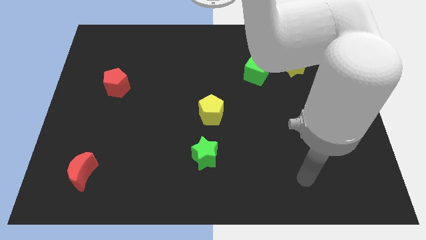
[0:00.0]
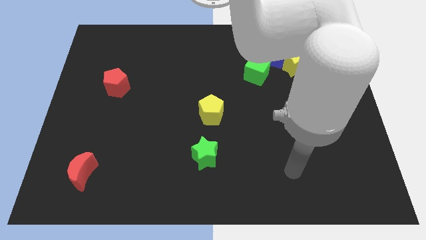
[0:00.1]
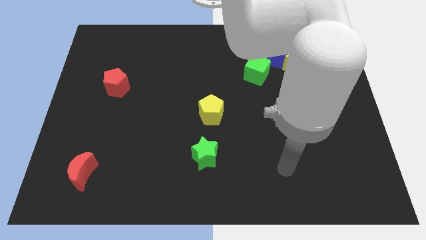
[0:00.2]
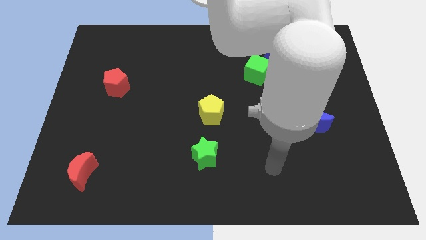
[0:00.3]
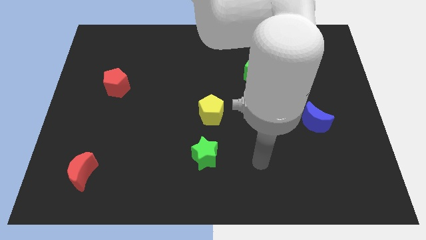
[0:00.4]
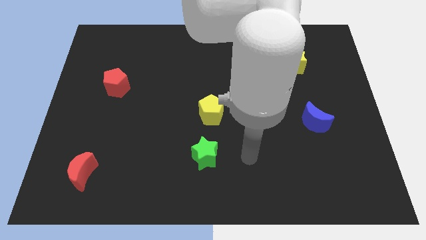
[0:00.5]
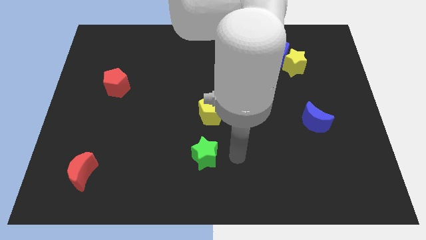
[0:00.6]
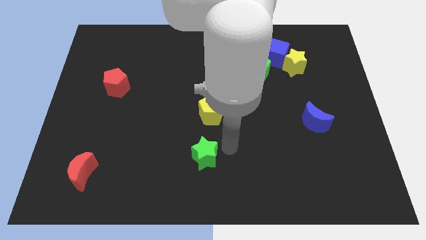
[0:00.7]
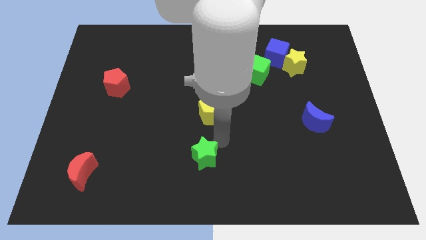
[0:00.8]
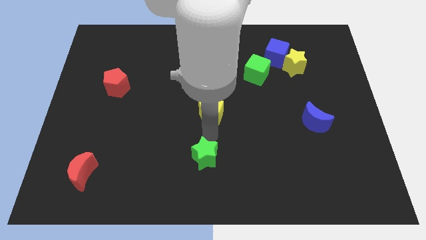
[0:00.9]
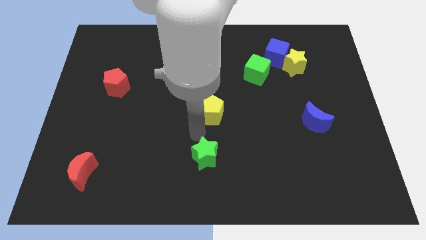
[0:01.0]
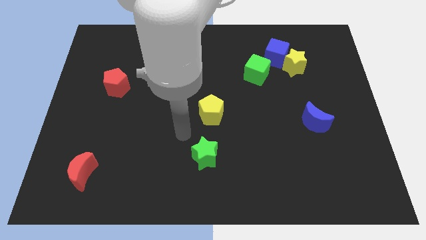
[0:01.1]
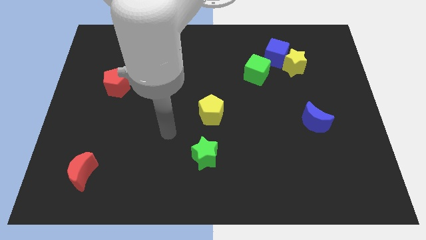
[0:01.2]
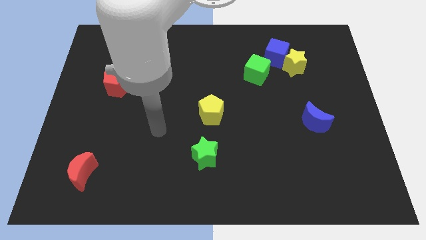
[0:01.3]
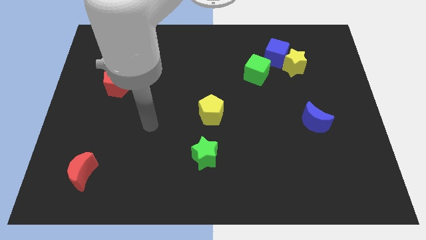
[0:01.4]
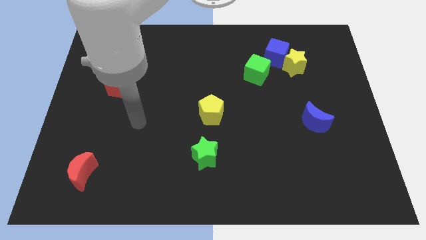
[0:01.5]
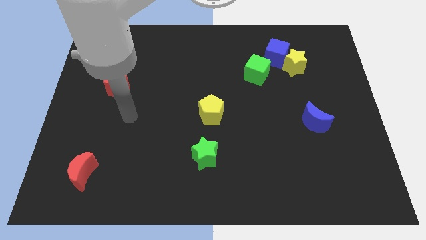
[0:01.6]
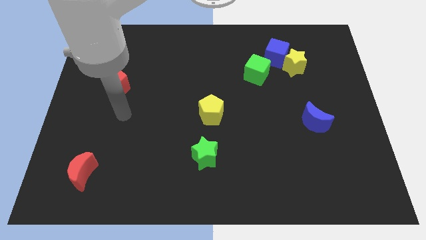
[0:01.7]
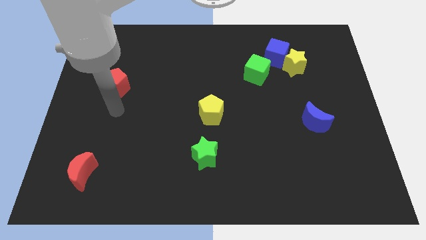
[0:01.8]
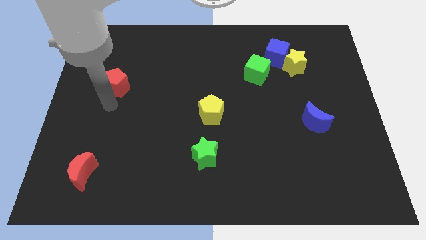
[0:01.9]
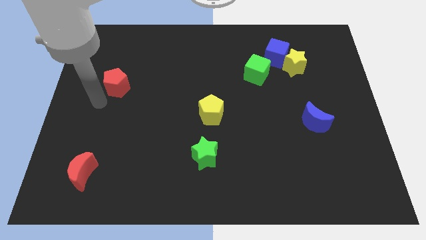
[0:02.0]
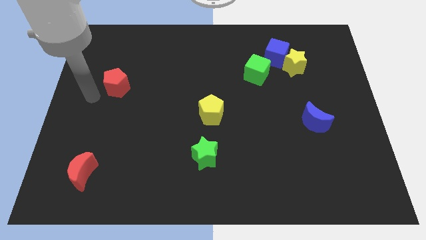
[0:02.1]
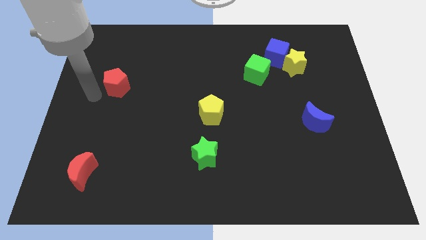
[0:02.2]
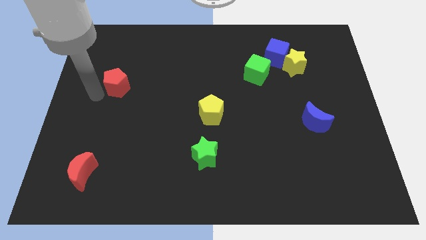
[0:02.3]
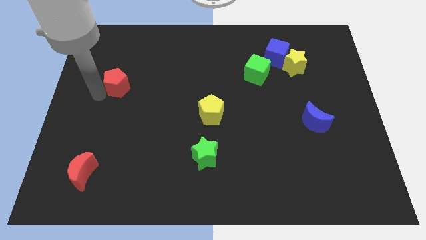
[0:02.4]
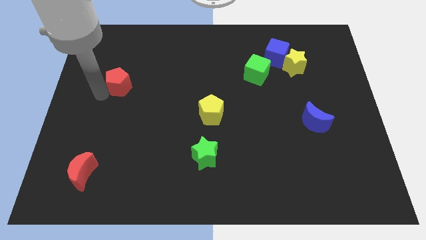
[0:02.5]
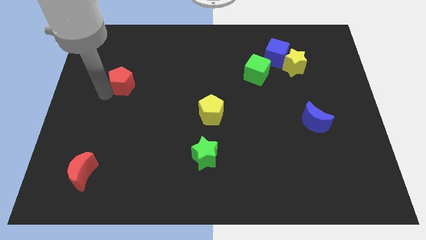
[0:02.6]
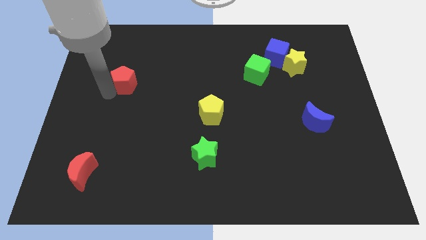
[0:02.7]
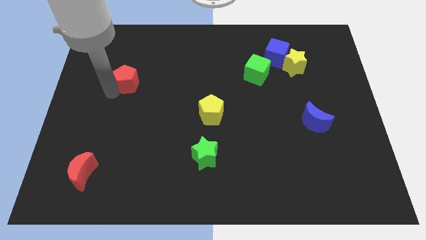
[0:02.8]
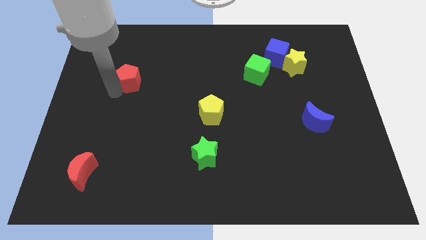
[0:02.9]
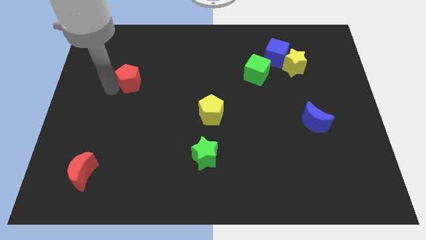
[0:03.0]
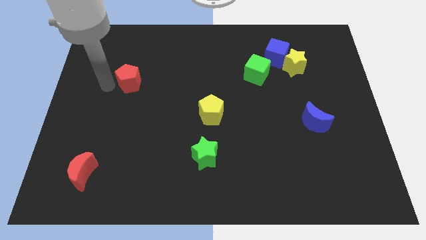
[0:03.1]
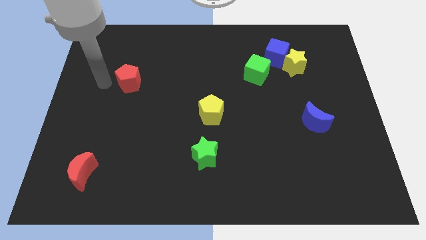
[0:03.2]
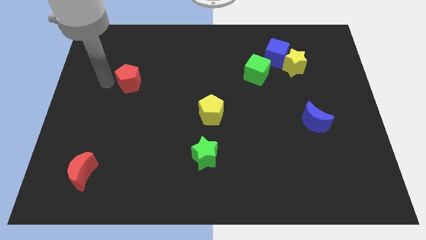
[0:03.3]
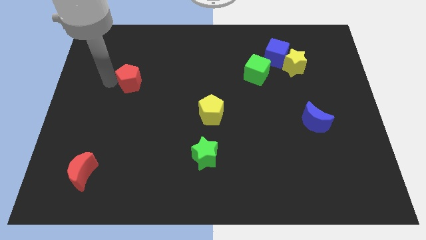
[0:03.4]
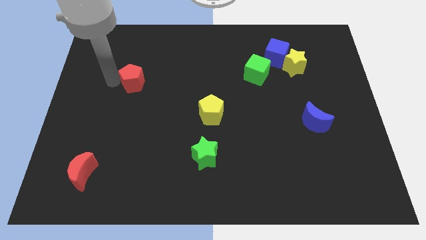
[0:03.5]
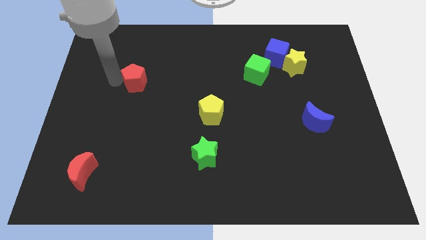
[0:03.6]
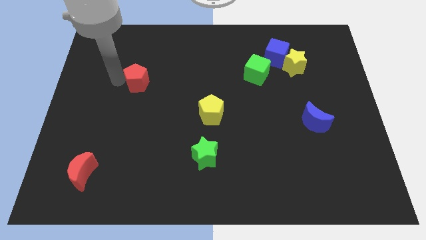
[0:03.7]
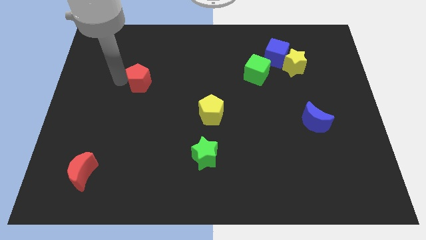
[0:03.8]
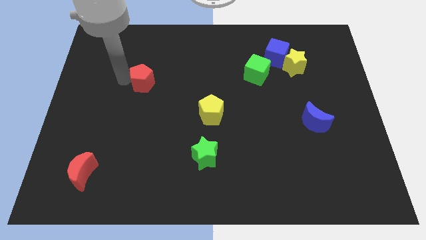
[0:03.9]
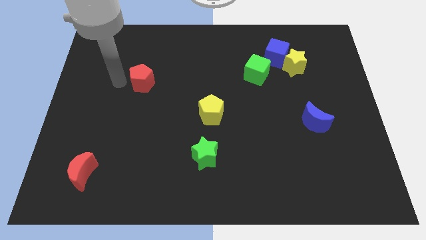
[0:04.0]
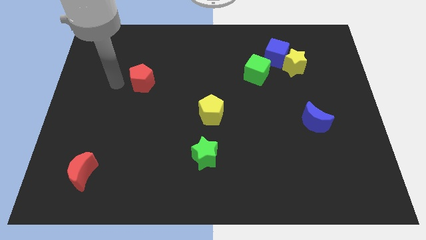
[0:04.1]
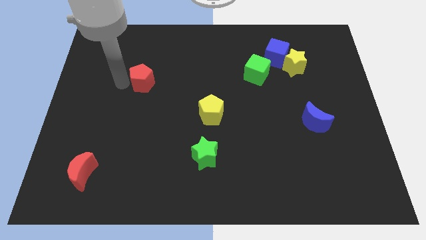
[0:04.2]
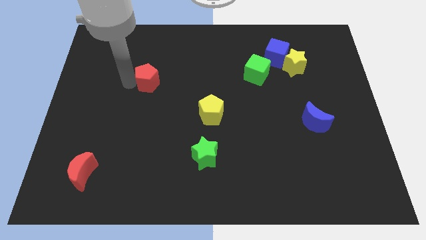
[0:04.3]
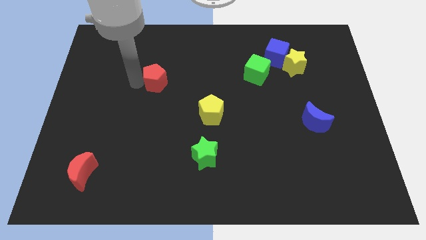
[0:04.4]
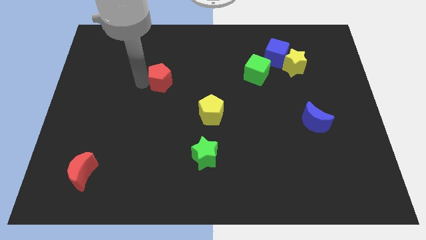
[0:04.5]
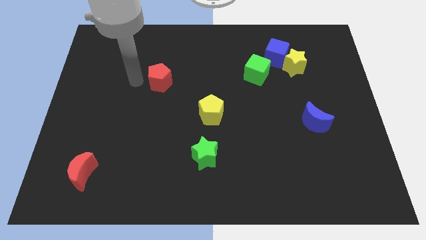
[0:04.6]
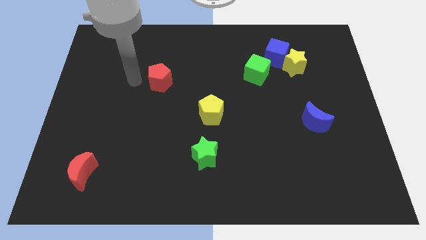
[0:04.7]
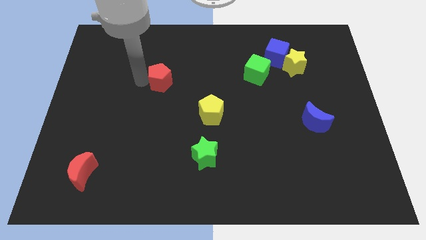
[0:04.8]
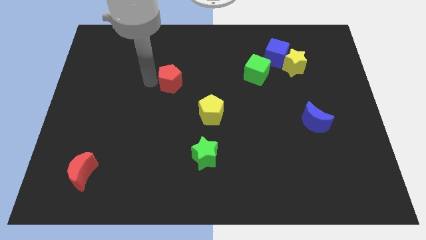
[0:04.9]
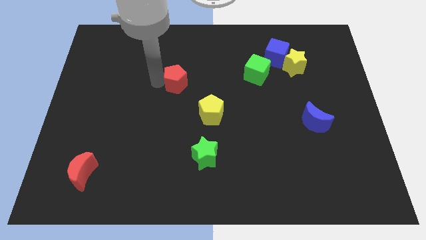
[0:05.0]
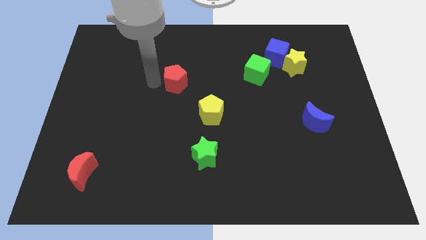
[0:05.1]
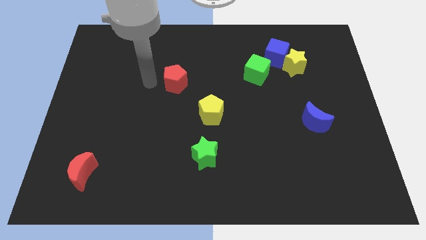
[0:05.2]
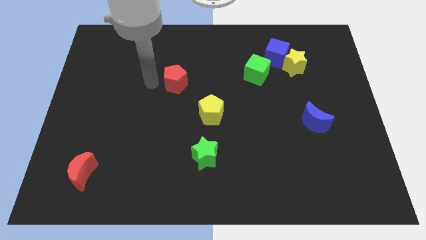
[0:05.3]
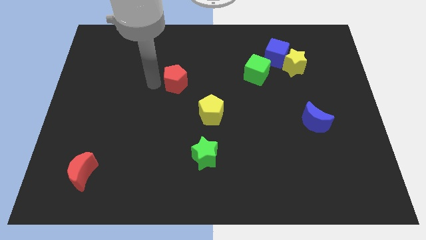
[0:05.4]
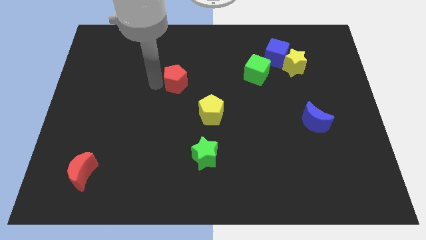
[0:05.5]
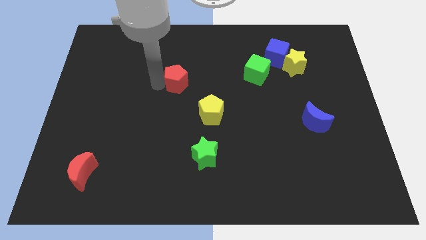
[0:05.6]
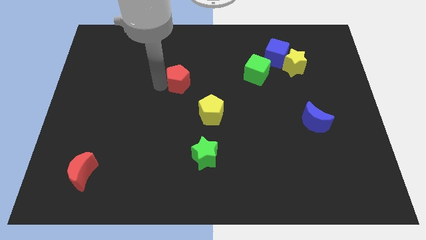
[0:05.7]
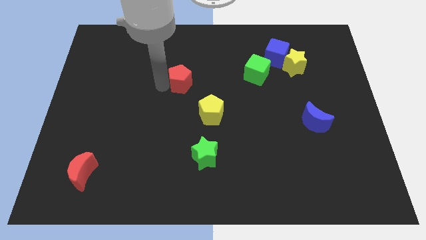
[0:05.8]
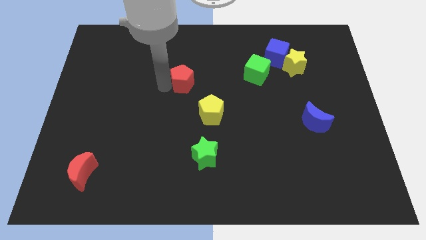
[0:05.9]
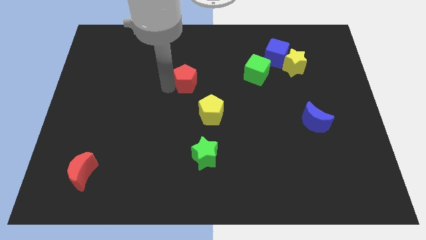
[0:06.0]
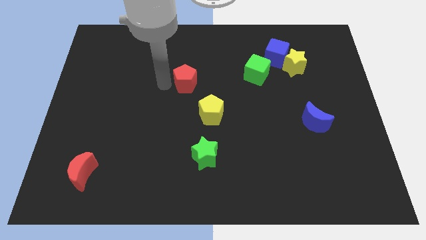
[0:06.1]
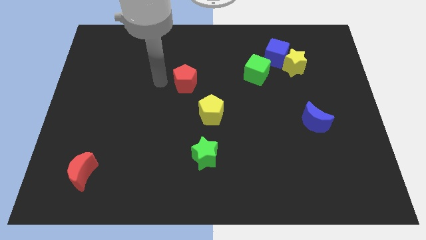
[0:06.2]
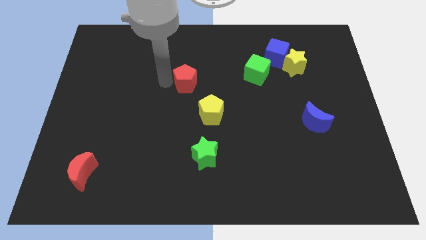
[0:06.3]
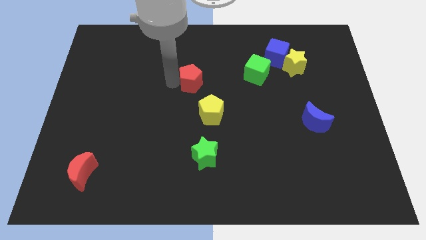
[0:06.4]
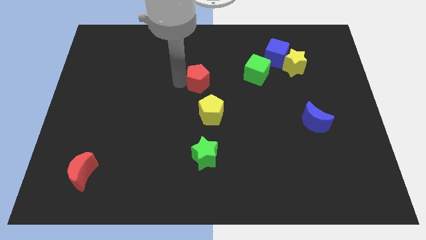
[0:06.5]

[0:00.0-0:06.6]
slide the red pentagon to the right

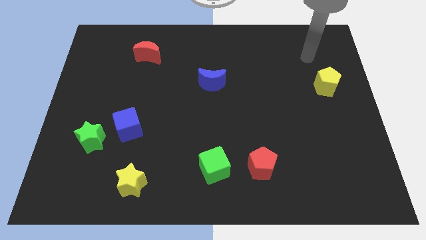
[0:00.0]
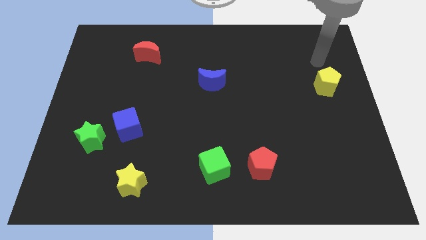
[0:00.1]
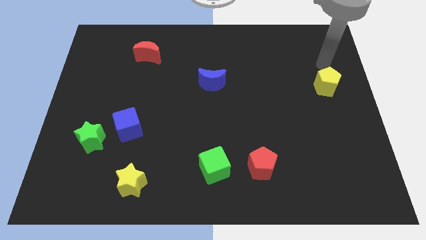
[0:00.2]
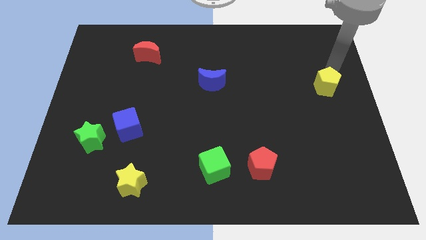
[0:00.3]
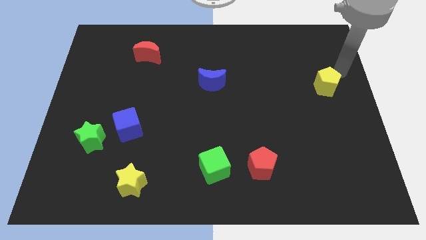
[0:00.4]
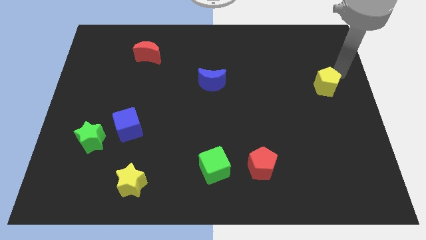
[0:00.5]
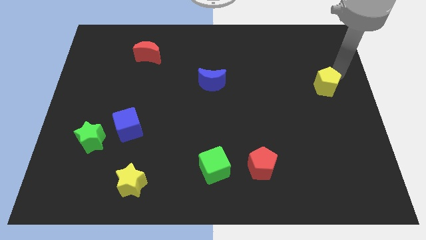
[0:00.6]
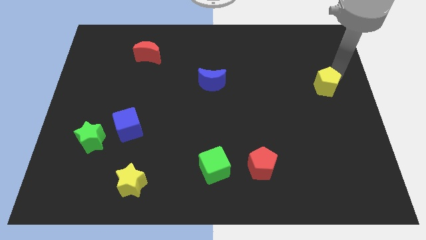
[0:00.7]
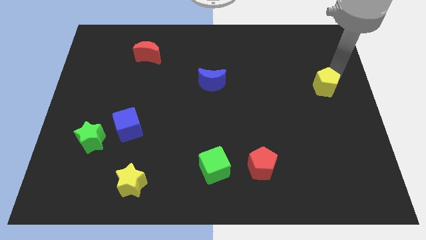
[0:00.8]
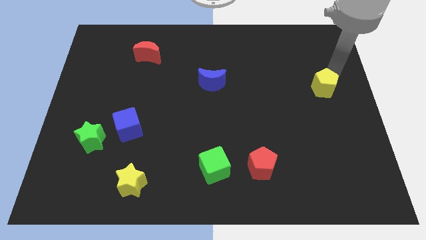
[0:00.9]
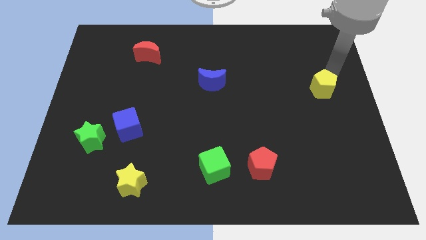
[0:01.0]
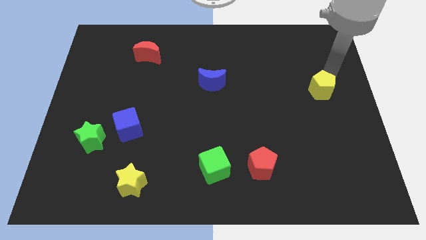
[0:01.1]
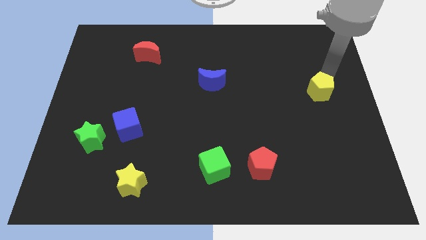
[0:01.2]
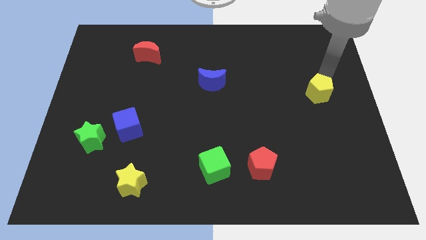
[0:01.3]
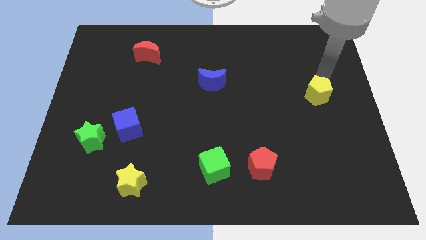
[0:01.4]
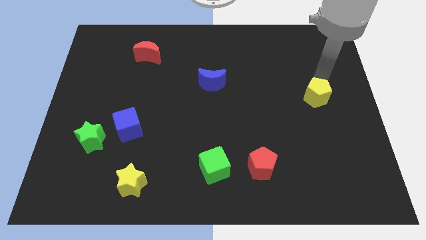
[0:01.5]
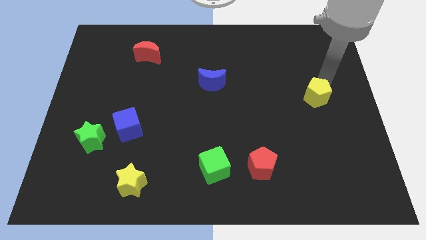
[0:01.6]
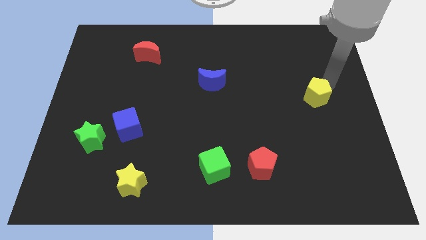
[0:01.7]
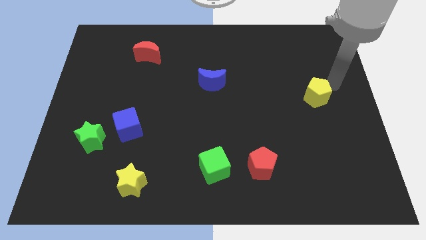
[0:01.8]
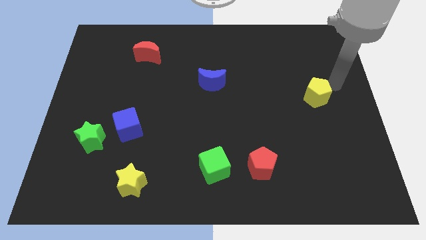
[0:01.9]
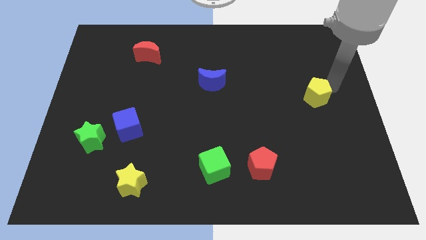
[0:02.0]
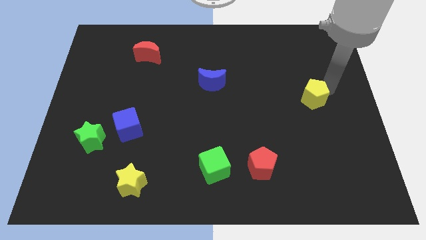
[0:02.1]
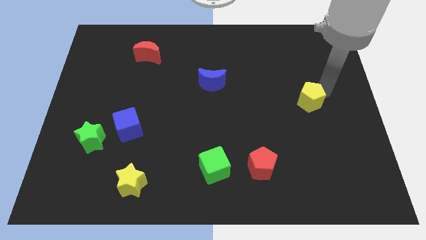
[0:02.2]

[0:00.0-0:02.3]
slide the yellow pentagon diagonally downwards and to the left slightly
